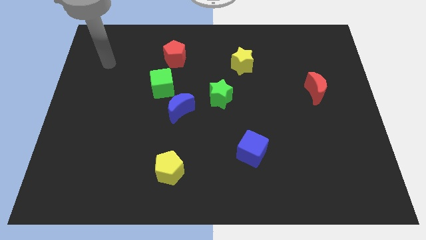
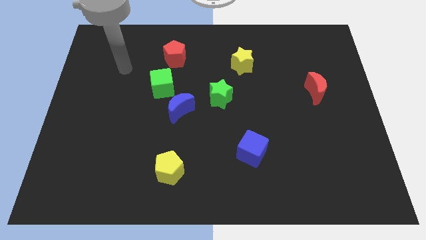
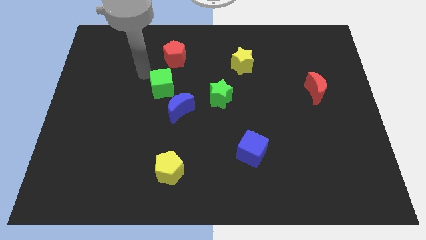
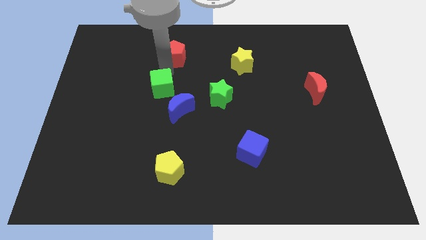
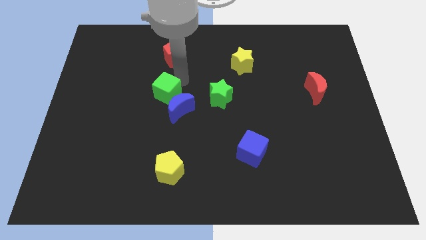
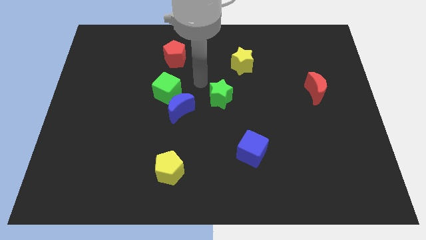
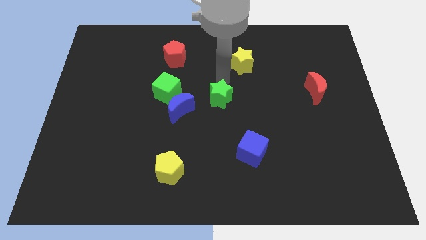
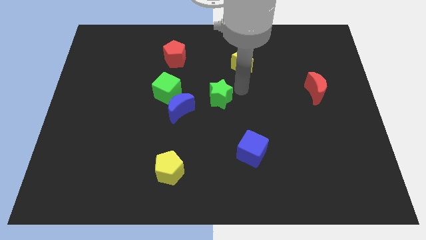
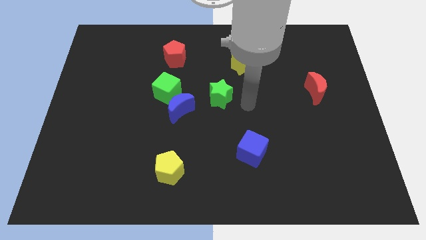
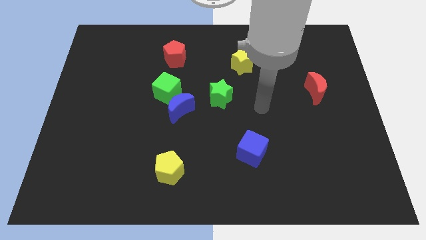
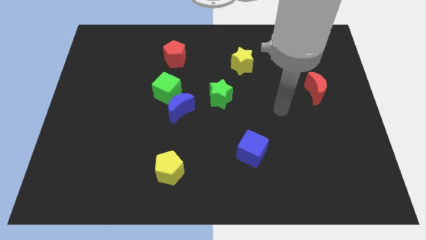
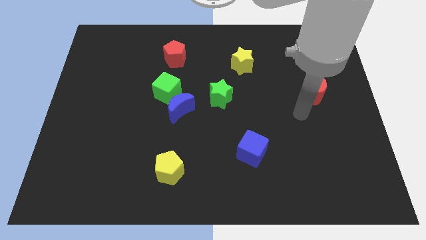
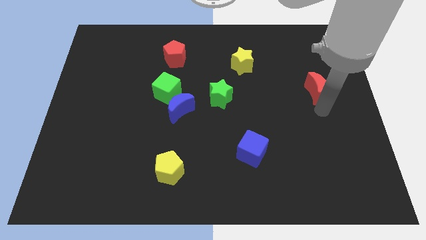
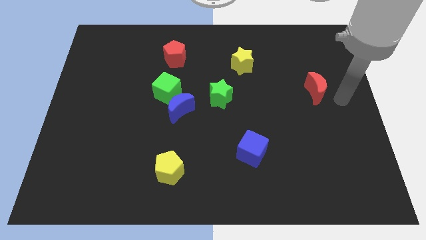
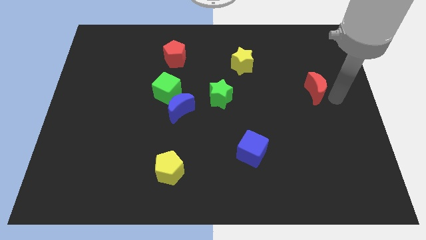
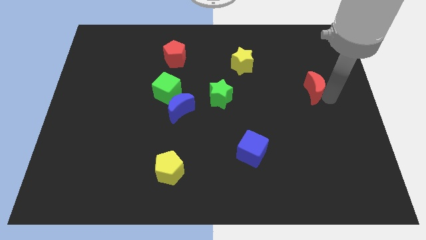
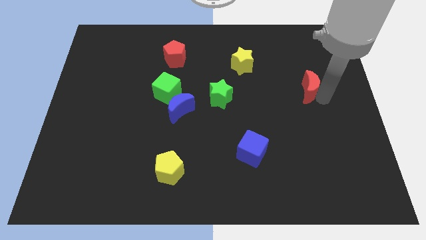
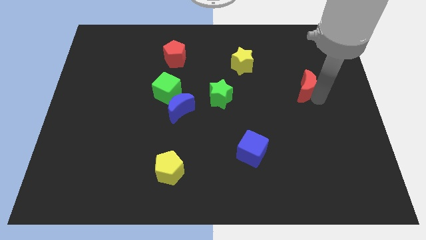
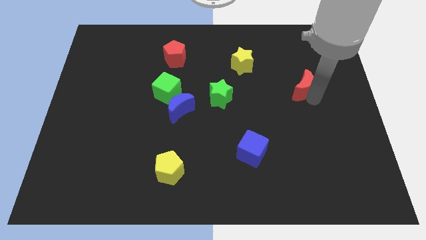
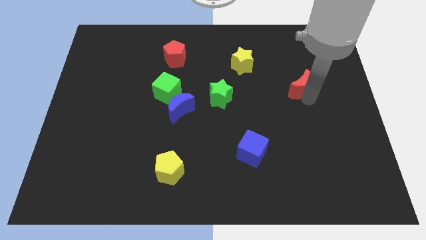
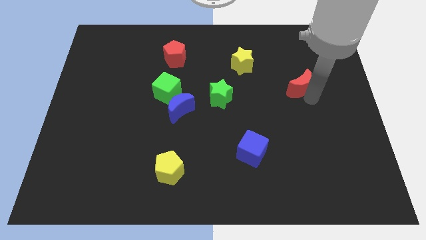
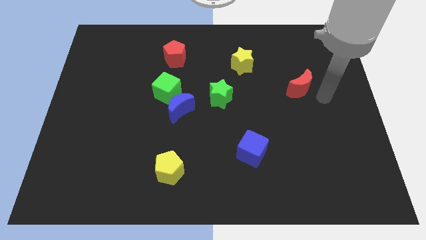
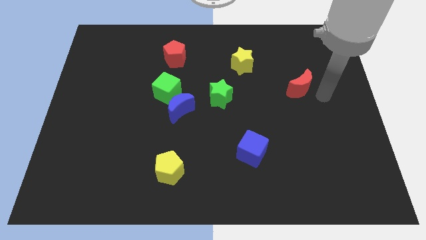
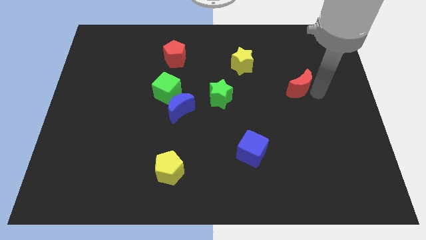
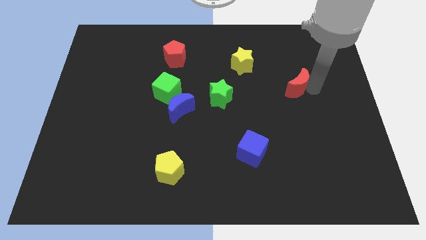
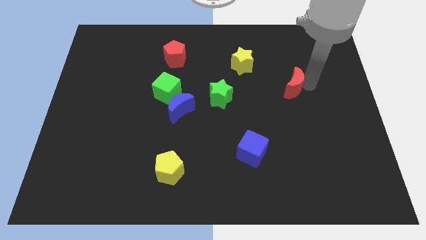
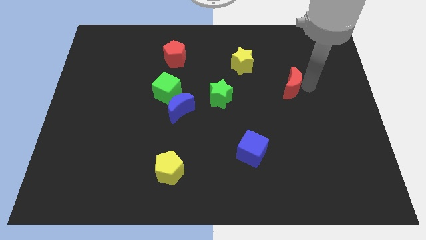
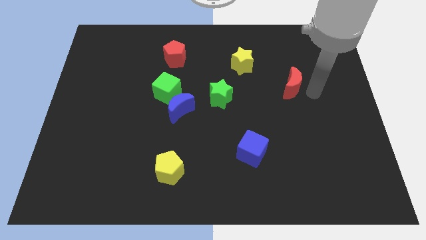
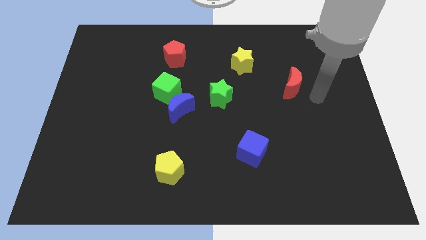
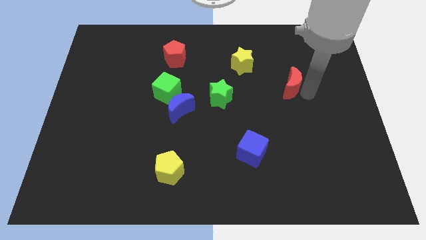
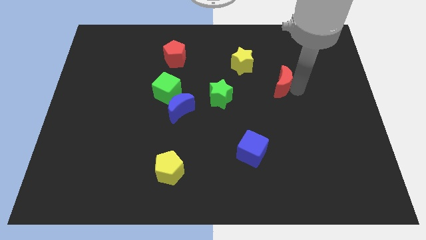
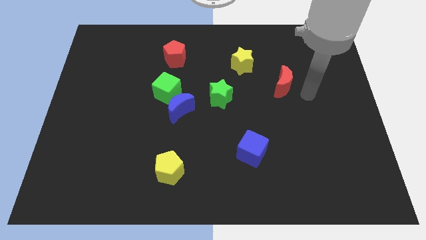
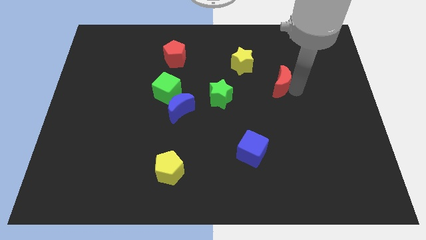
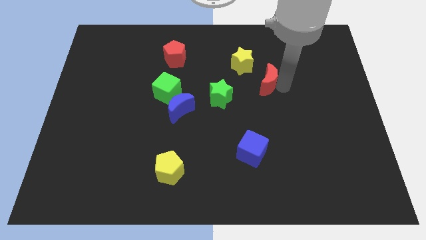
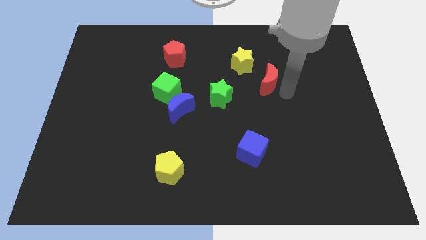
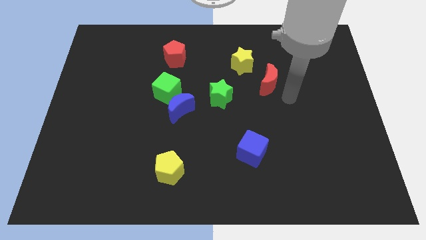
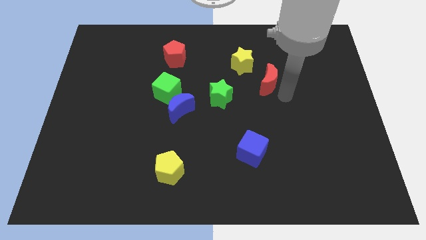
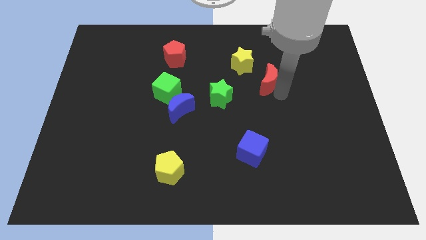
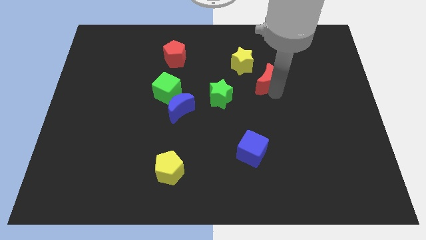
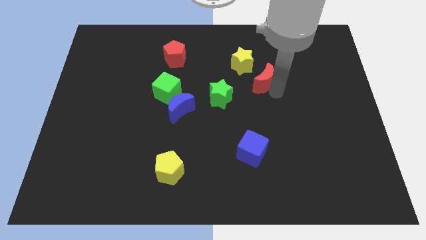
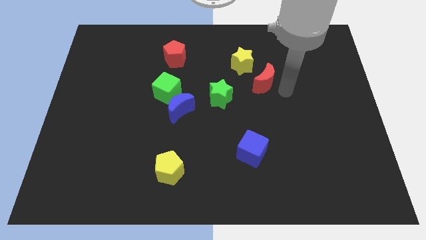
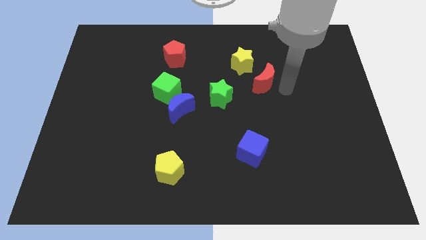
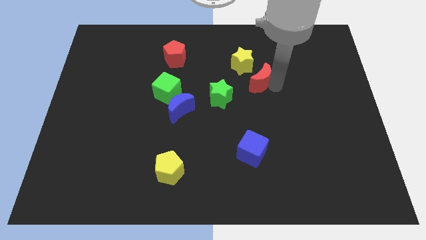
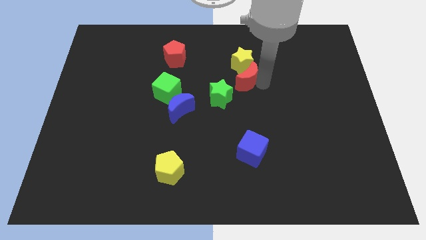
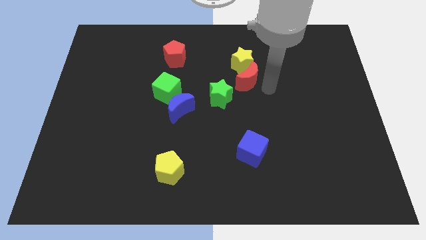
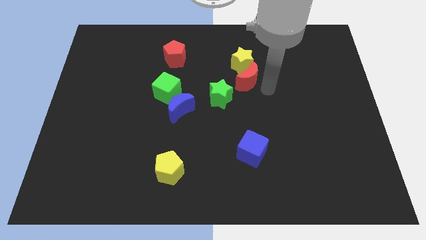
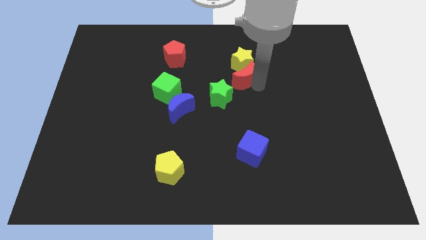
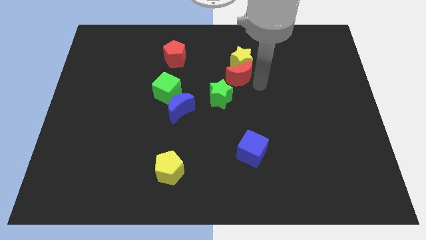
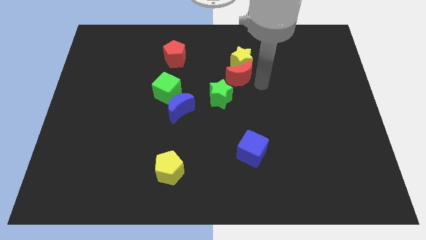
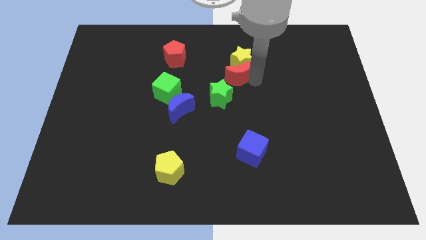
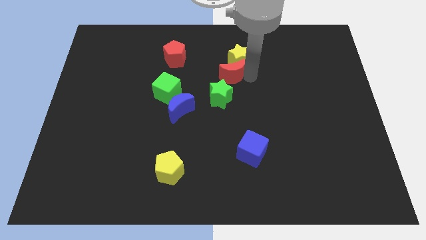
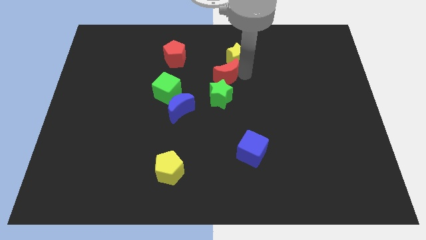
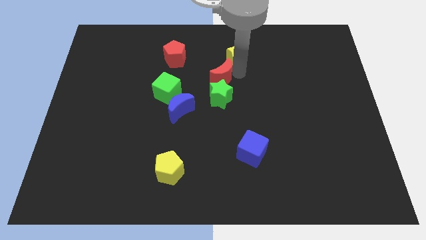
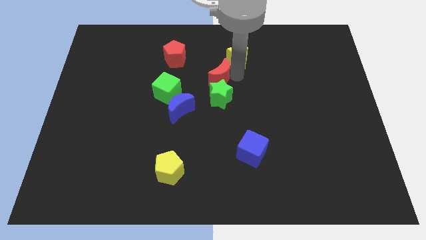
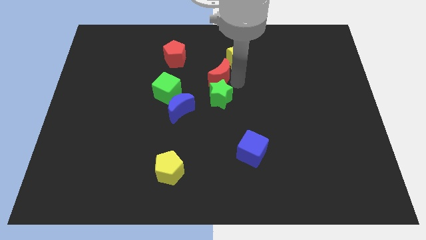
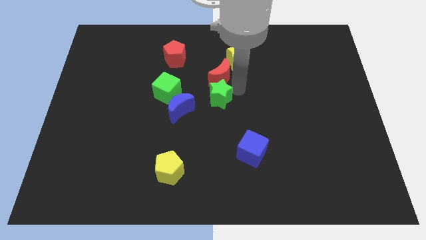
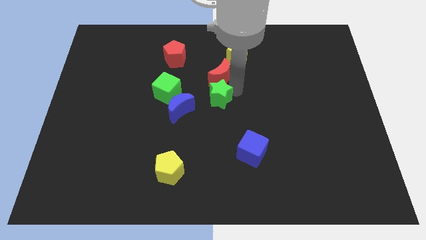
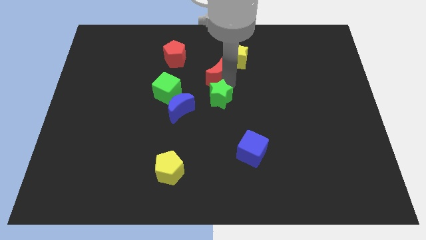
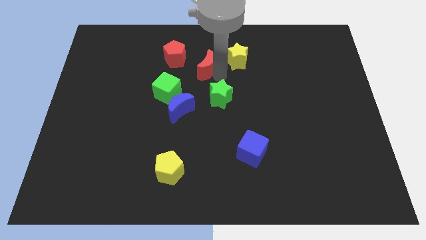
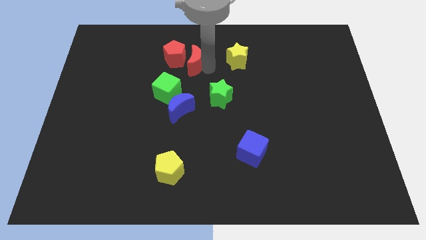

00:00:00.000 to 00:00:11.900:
push the red moon next to the red pentagon

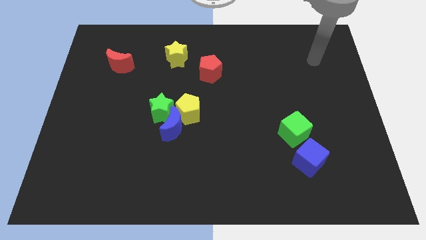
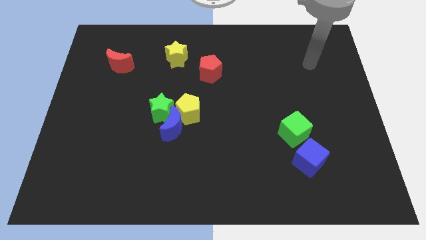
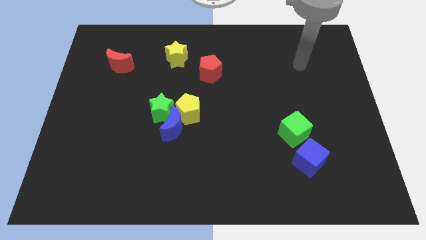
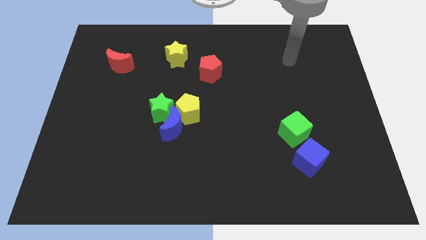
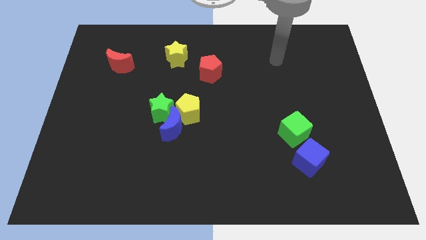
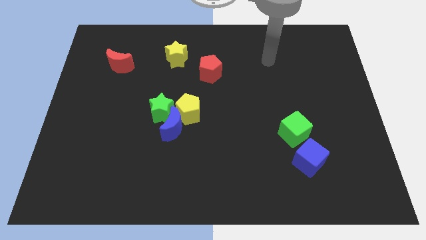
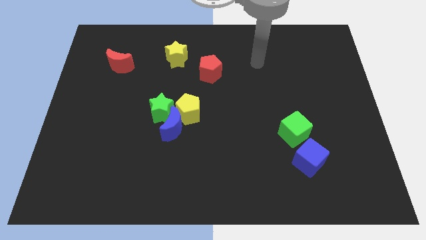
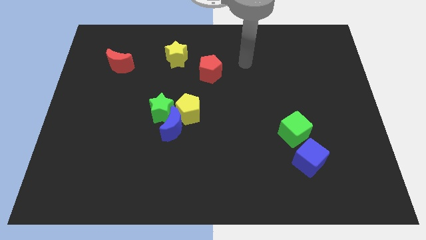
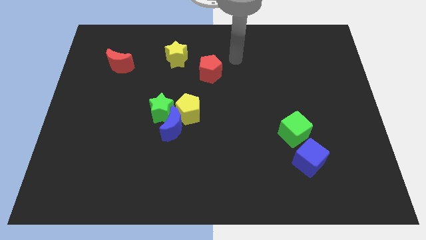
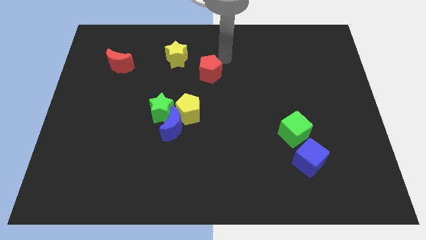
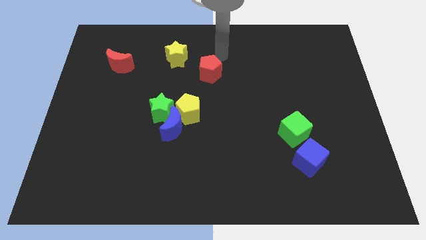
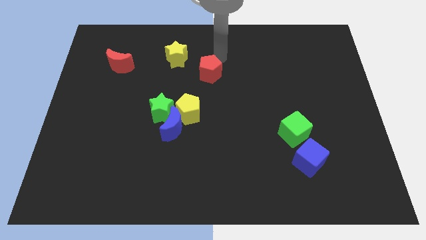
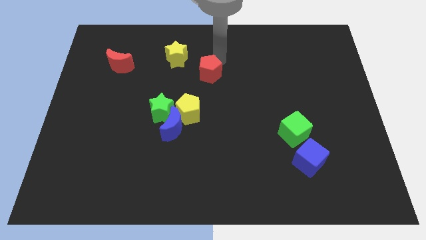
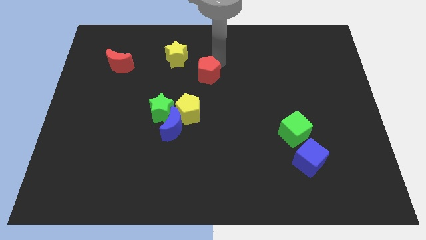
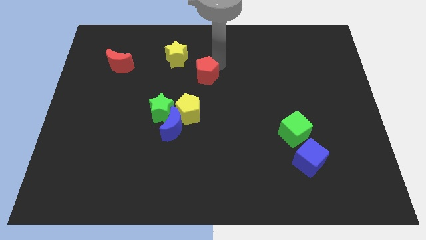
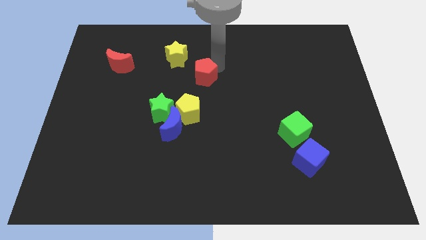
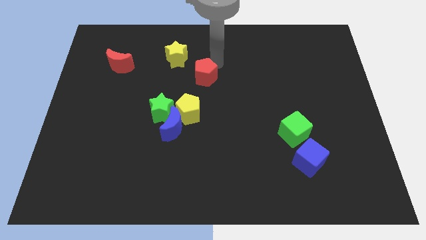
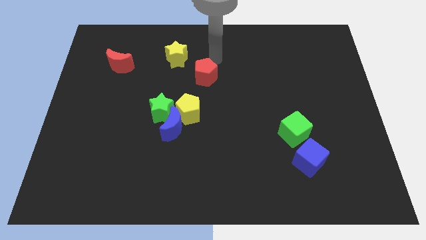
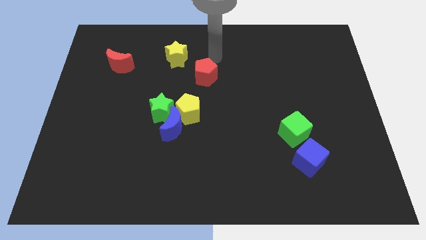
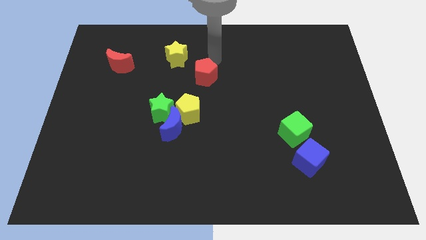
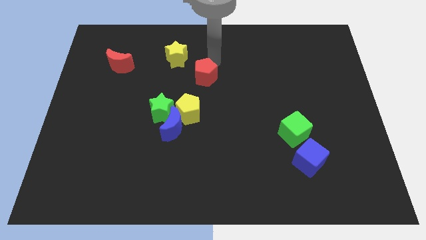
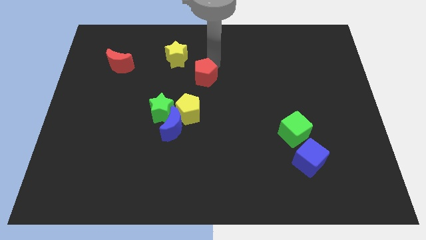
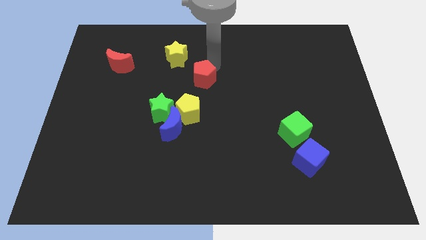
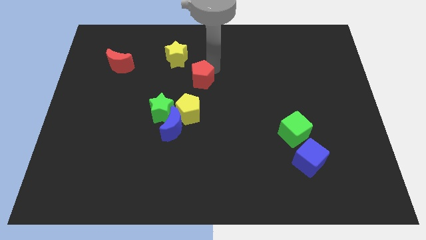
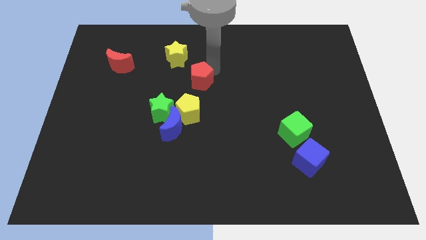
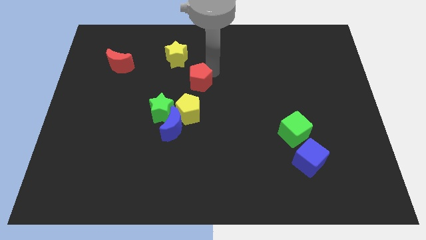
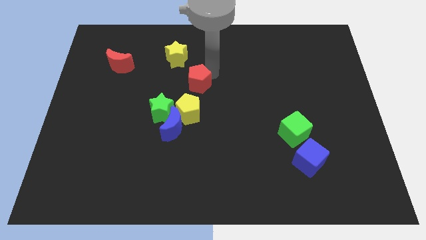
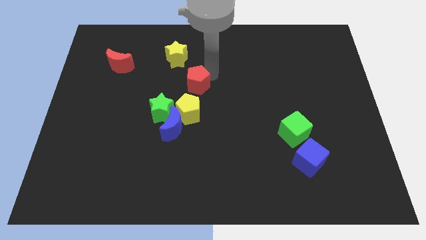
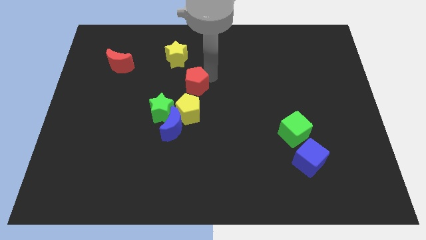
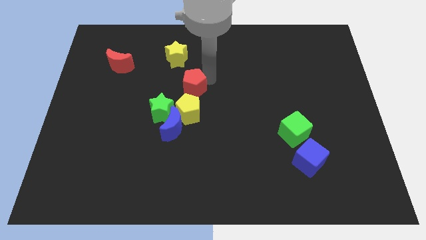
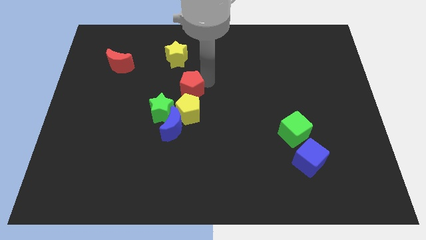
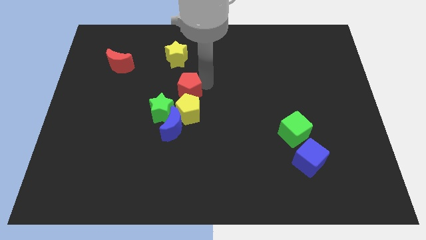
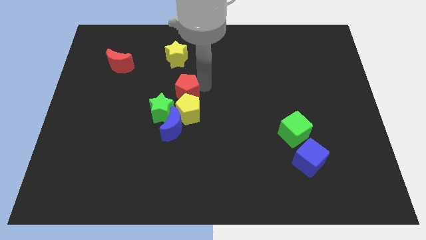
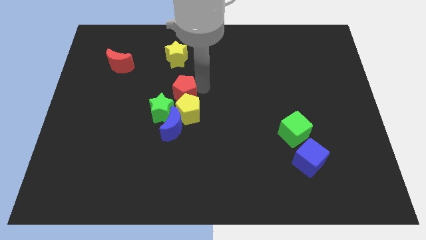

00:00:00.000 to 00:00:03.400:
push the red pentagon next to the yellow pentagon
